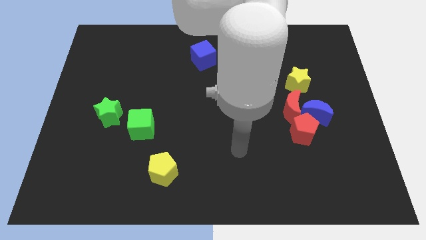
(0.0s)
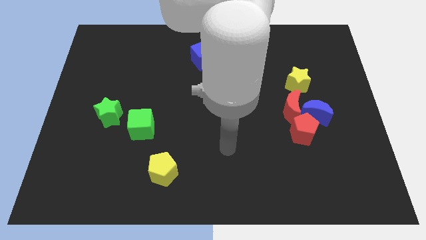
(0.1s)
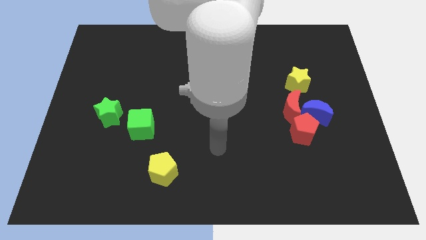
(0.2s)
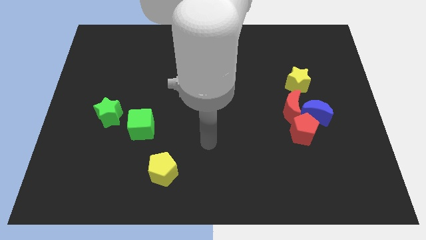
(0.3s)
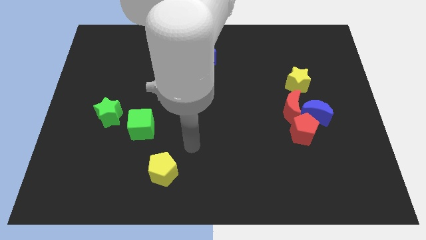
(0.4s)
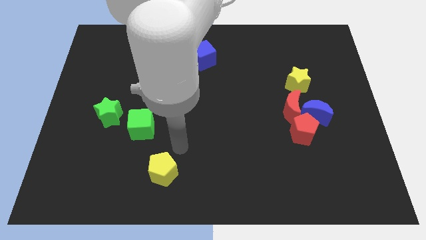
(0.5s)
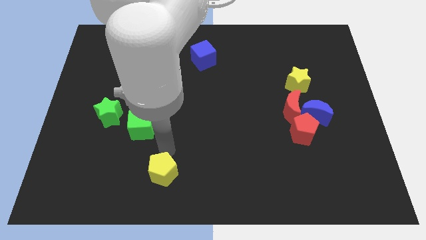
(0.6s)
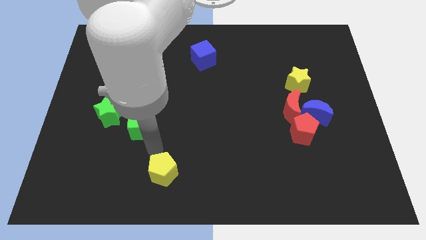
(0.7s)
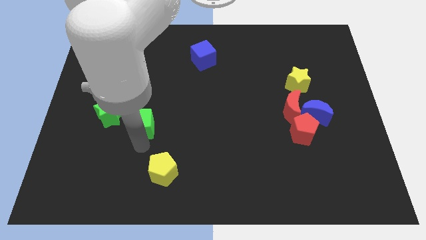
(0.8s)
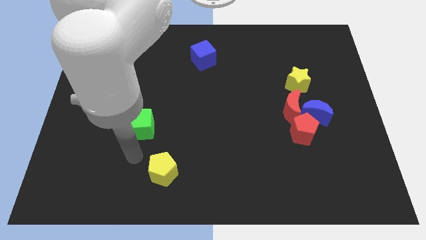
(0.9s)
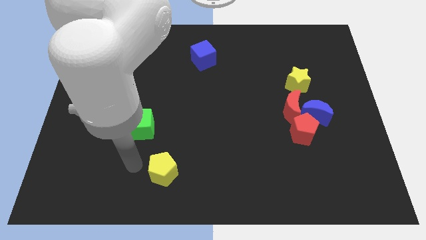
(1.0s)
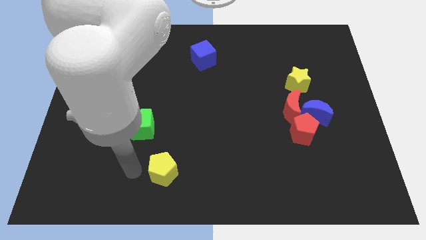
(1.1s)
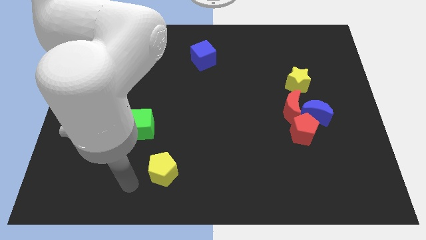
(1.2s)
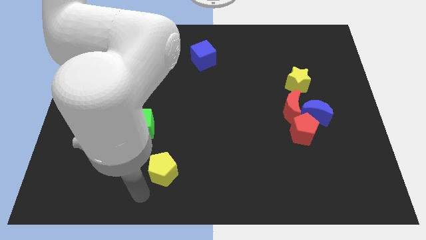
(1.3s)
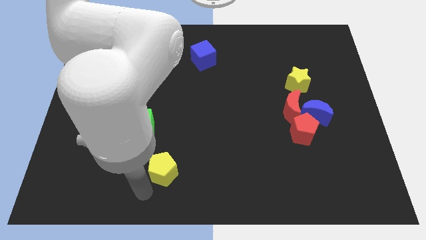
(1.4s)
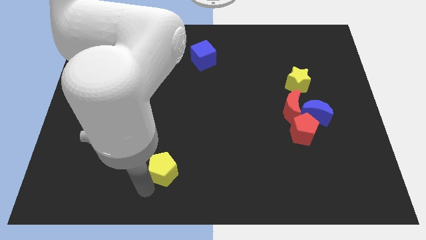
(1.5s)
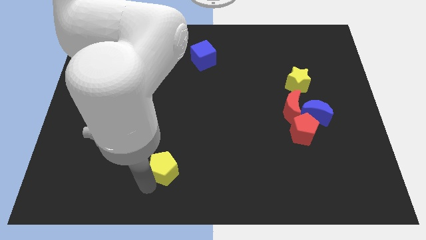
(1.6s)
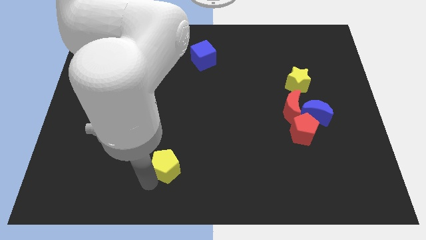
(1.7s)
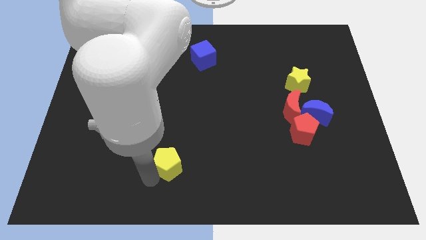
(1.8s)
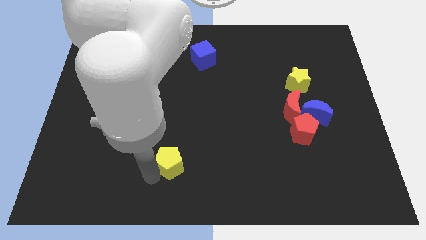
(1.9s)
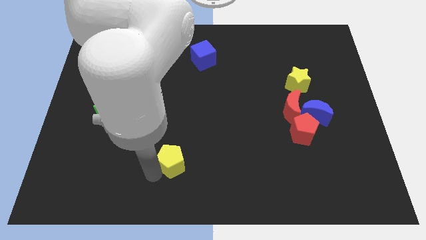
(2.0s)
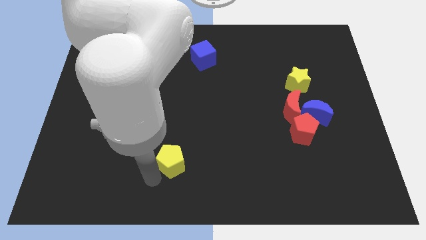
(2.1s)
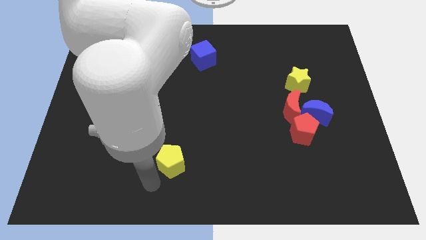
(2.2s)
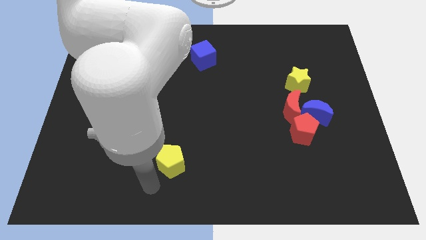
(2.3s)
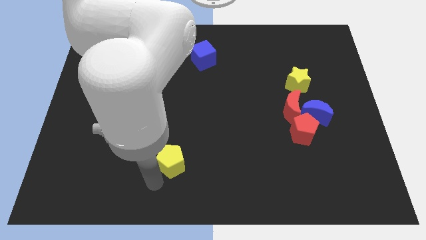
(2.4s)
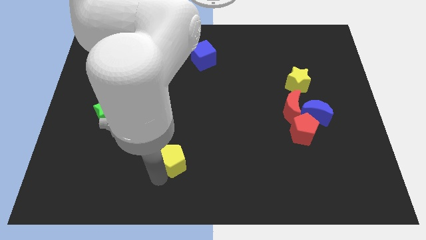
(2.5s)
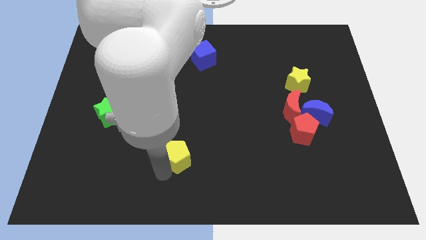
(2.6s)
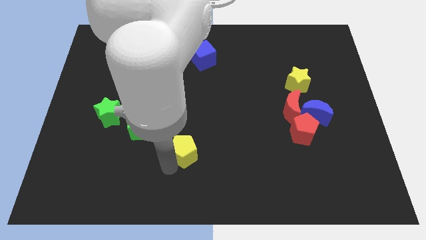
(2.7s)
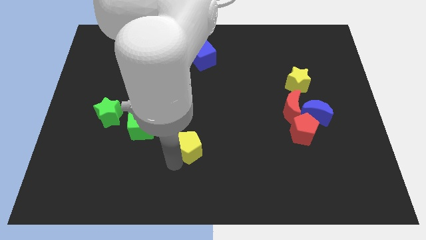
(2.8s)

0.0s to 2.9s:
slightly push the yellow pentagon upwards and right

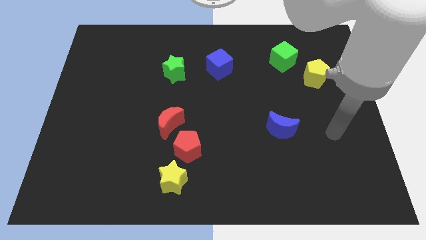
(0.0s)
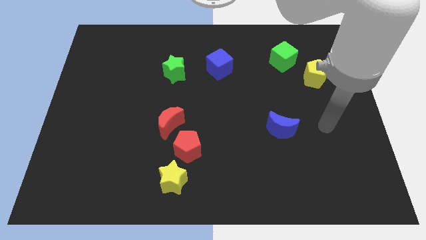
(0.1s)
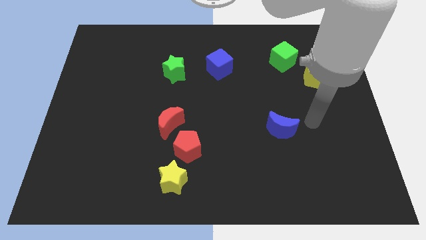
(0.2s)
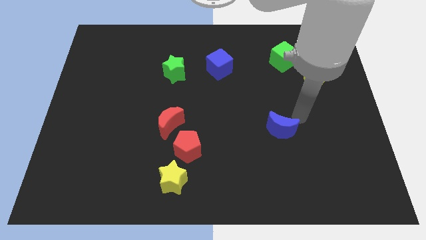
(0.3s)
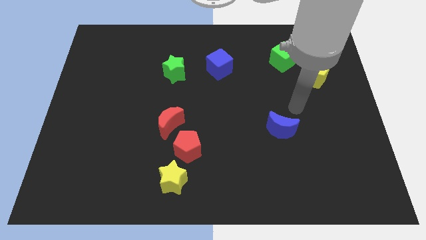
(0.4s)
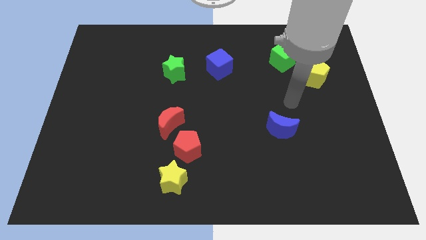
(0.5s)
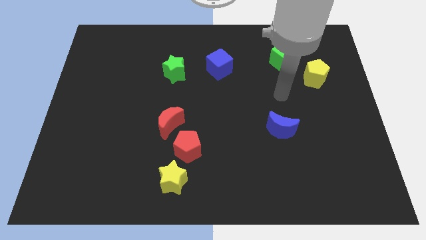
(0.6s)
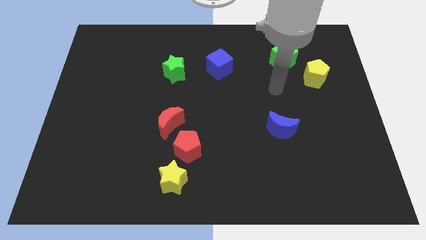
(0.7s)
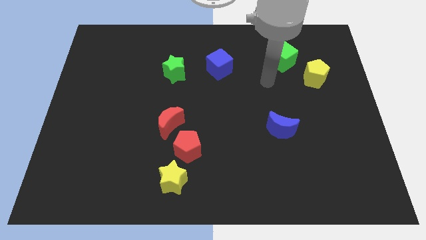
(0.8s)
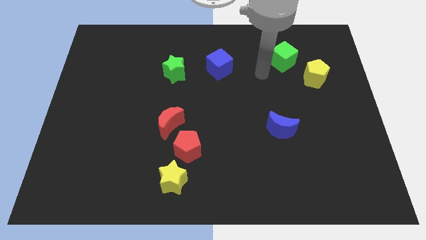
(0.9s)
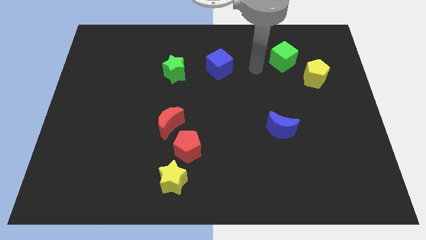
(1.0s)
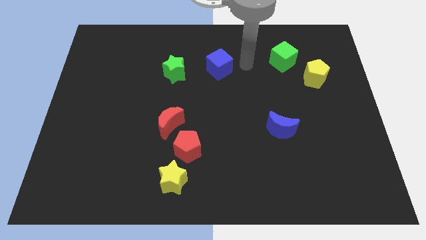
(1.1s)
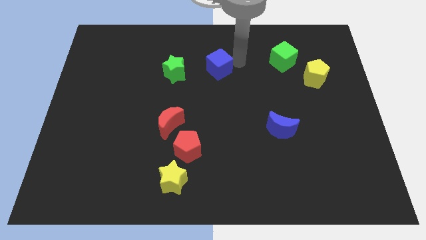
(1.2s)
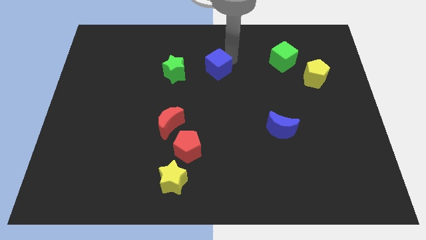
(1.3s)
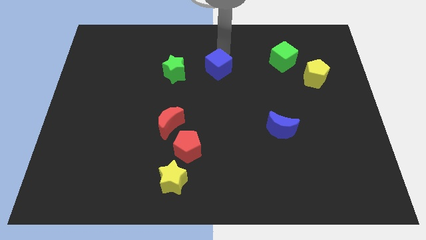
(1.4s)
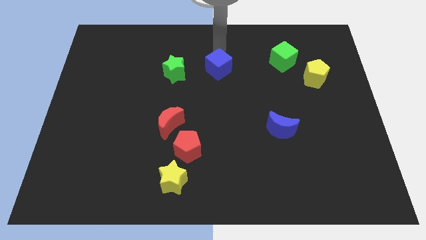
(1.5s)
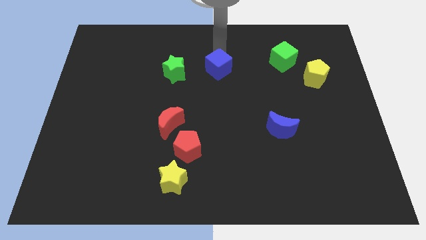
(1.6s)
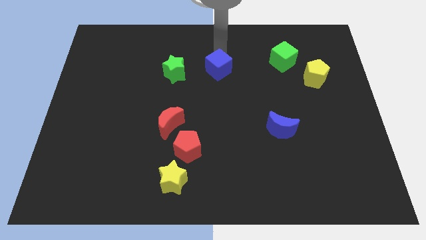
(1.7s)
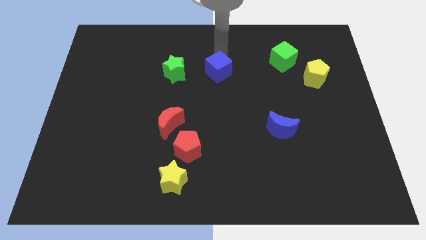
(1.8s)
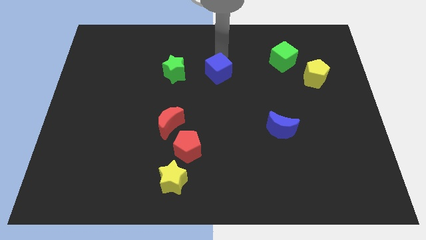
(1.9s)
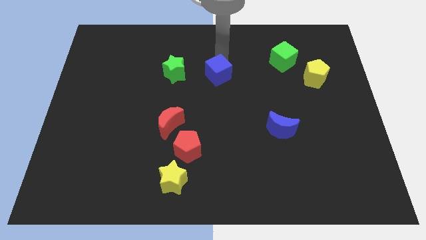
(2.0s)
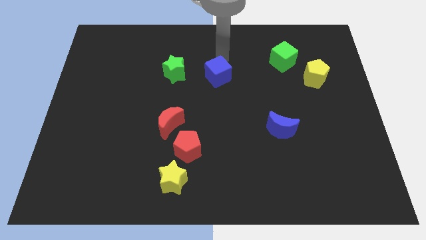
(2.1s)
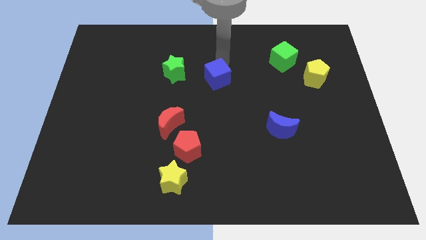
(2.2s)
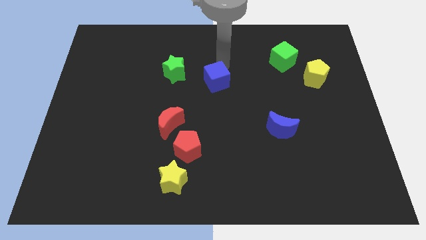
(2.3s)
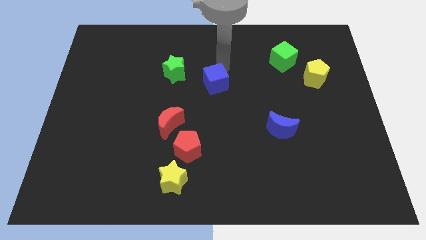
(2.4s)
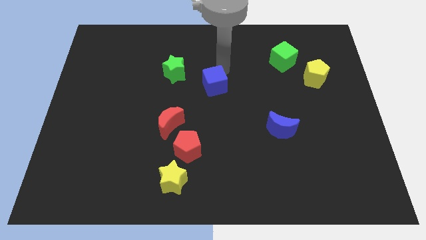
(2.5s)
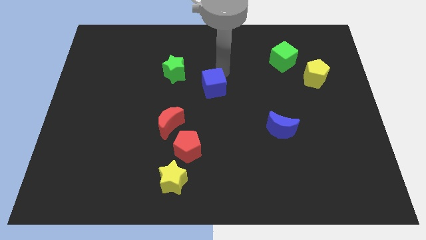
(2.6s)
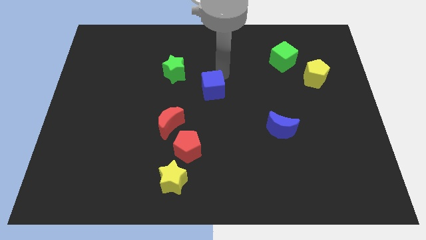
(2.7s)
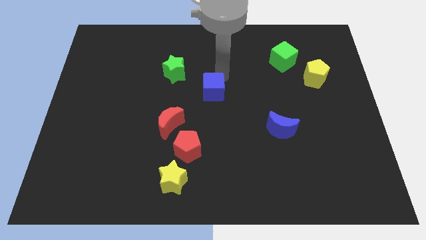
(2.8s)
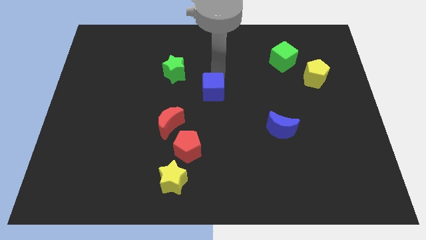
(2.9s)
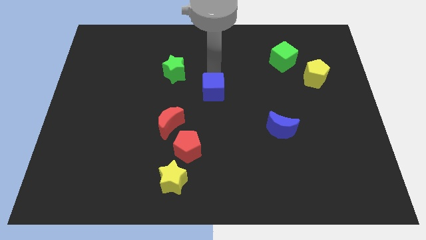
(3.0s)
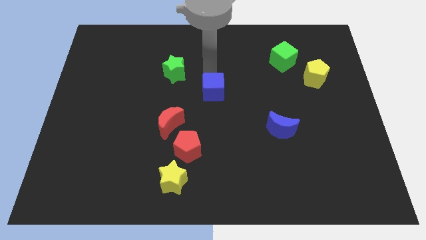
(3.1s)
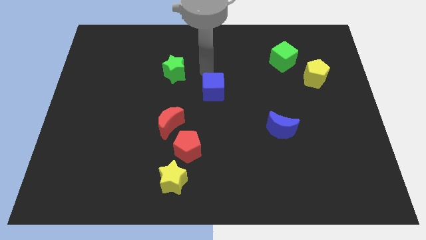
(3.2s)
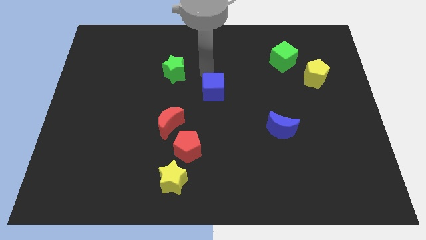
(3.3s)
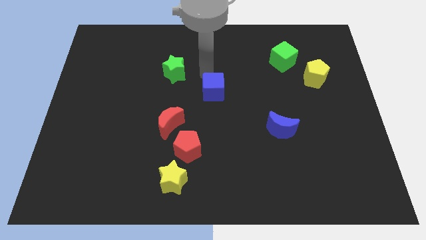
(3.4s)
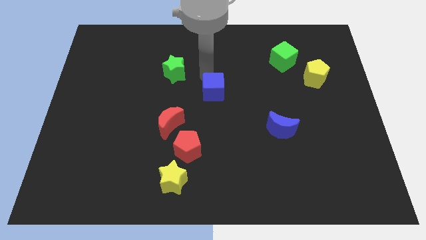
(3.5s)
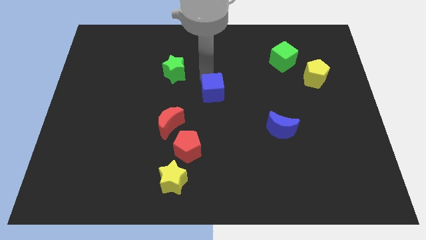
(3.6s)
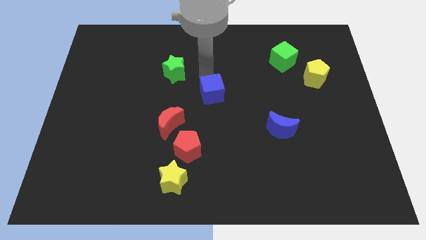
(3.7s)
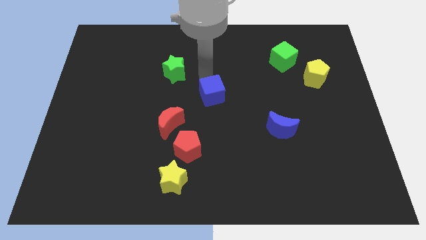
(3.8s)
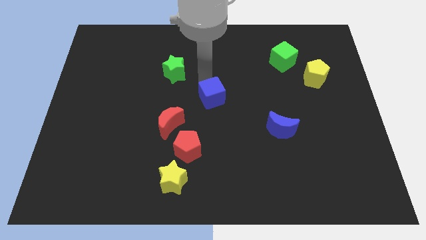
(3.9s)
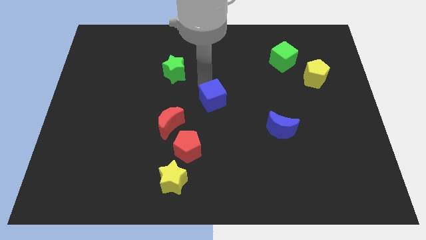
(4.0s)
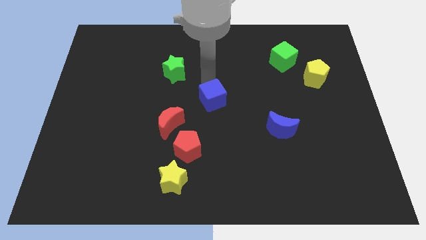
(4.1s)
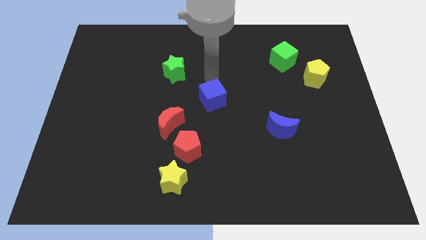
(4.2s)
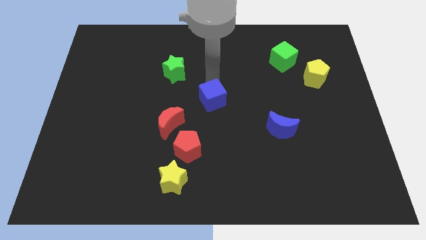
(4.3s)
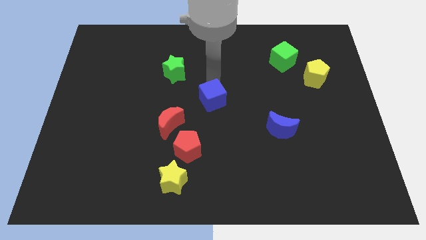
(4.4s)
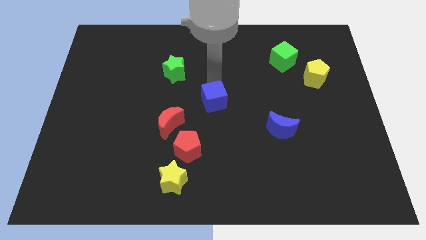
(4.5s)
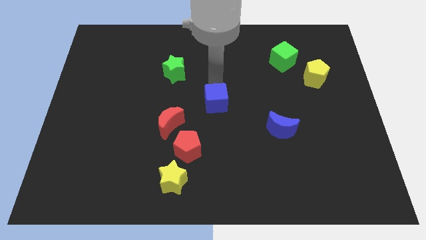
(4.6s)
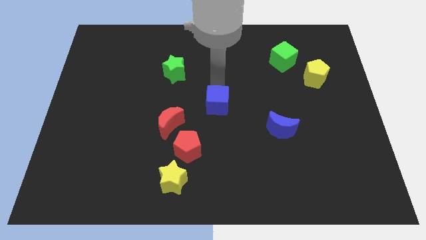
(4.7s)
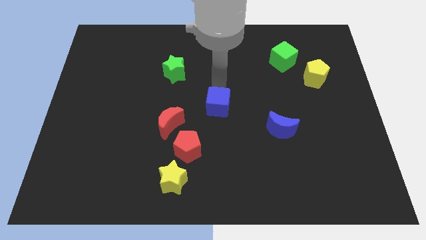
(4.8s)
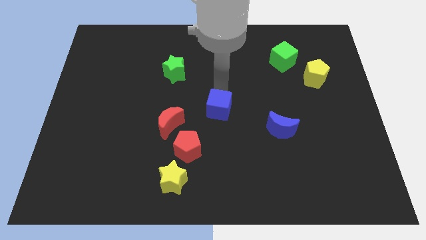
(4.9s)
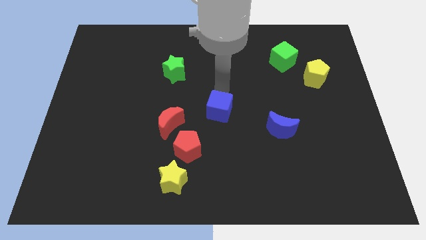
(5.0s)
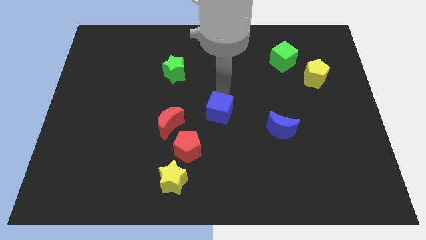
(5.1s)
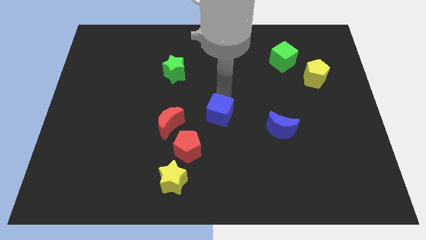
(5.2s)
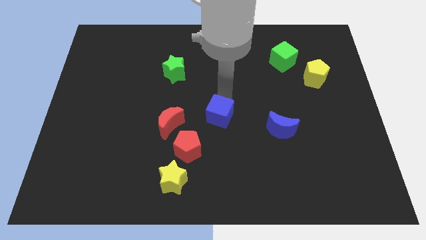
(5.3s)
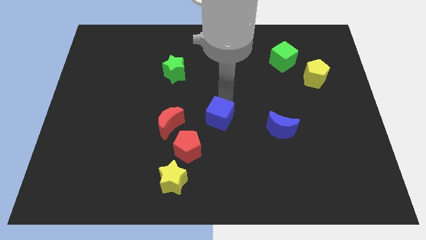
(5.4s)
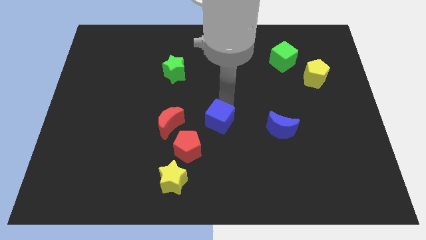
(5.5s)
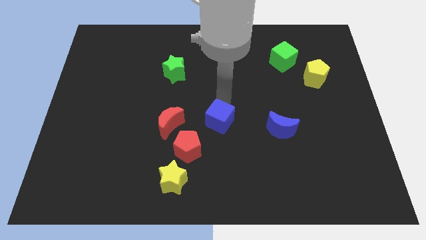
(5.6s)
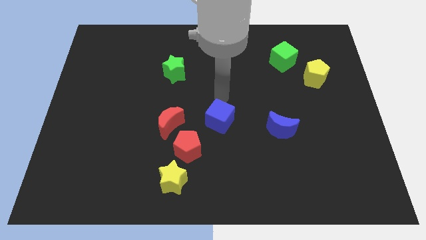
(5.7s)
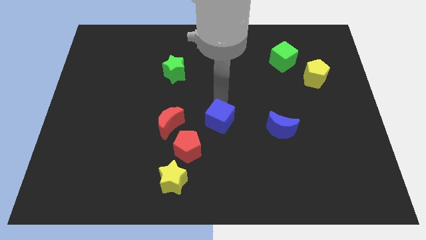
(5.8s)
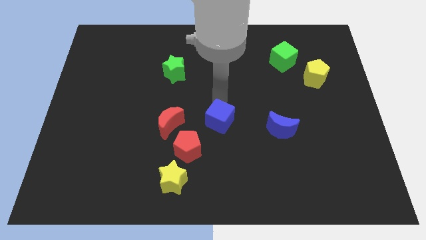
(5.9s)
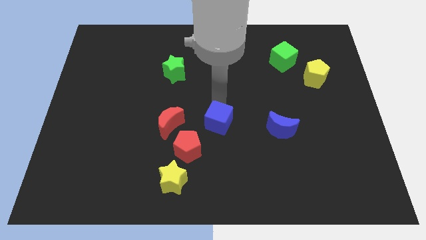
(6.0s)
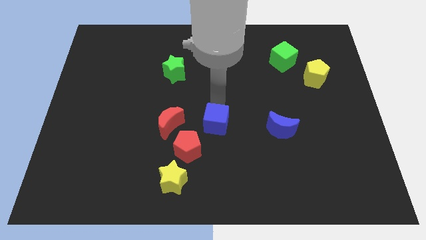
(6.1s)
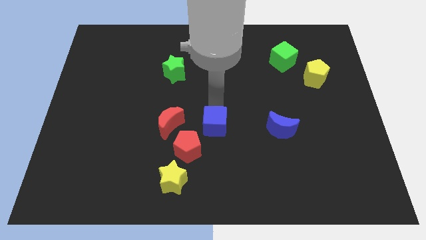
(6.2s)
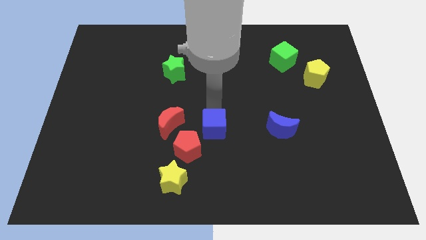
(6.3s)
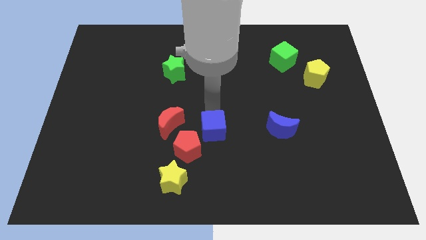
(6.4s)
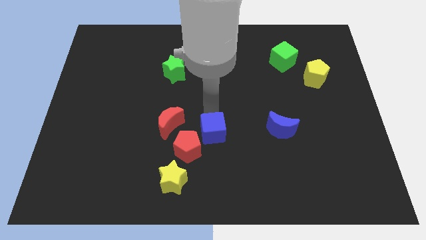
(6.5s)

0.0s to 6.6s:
push the blue cube down
